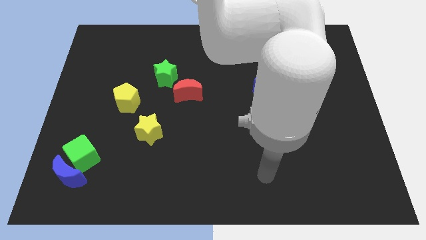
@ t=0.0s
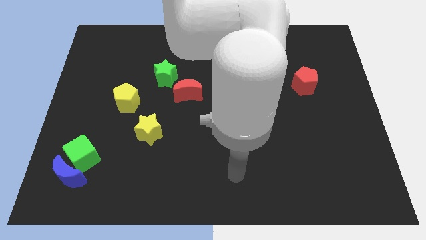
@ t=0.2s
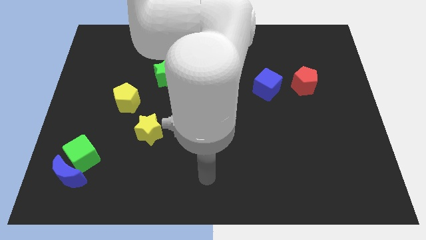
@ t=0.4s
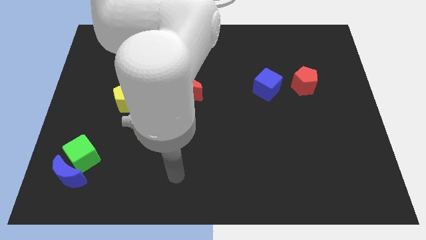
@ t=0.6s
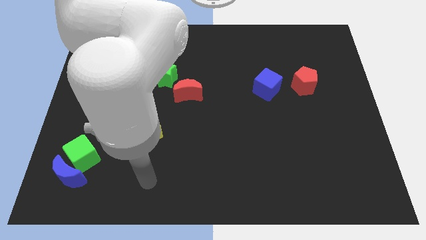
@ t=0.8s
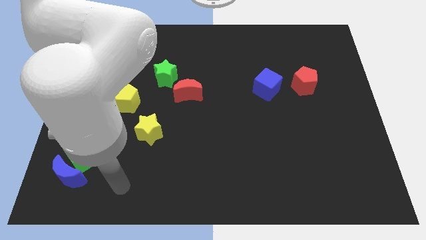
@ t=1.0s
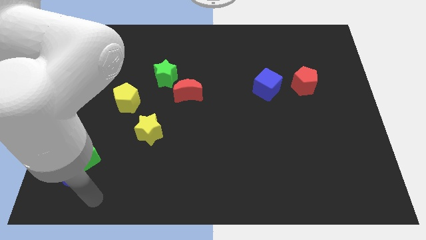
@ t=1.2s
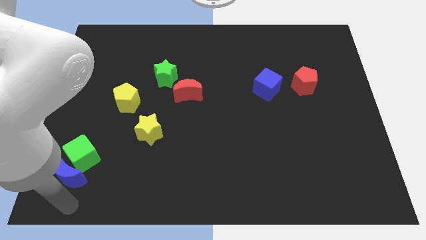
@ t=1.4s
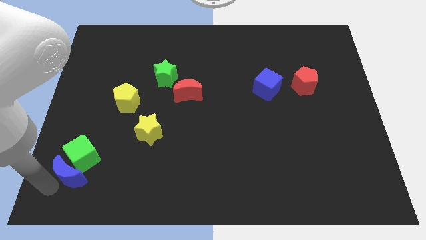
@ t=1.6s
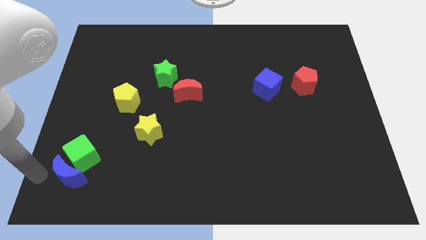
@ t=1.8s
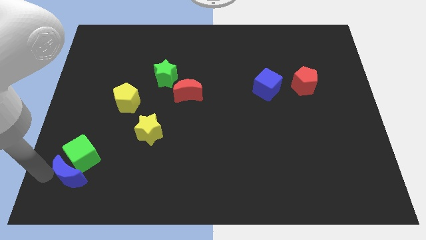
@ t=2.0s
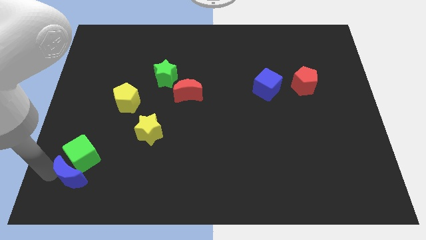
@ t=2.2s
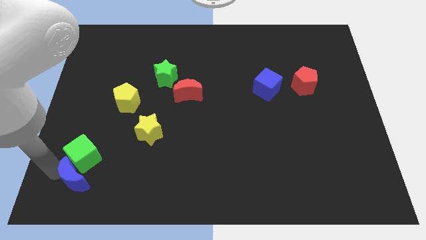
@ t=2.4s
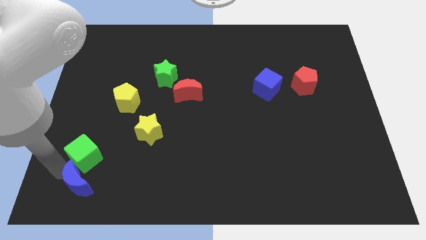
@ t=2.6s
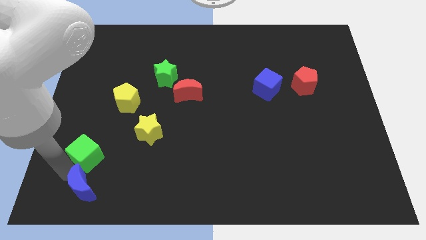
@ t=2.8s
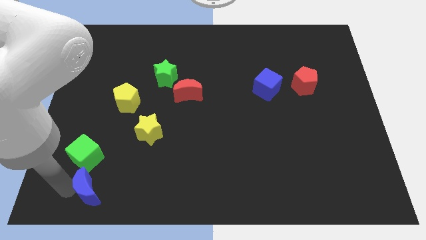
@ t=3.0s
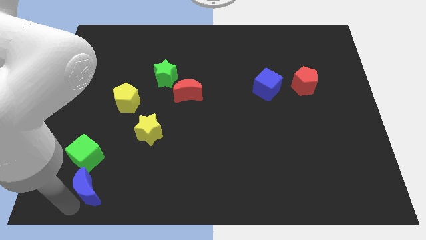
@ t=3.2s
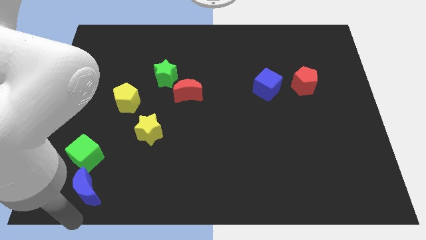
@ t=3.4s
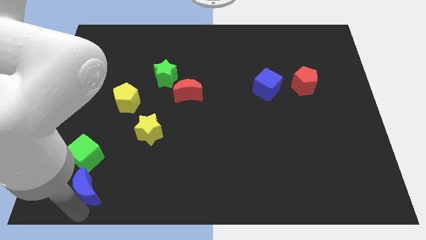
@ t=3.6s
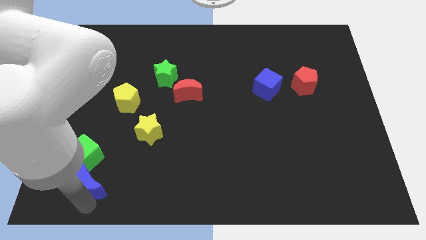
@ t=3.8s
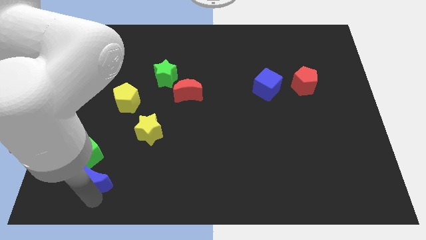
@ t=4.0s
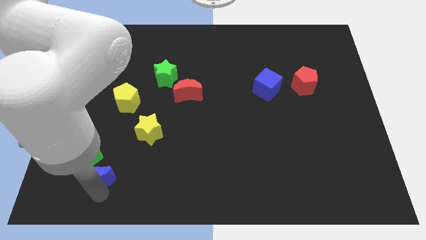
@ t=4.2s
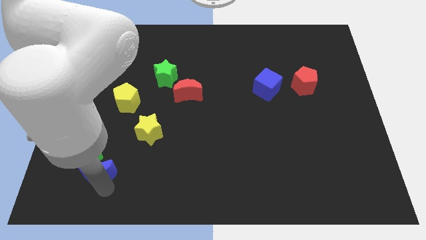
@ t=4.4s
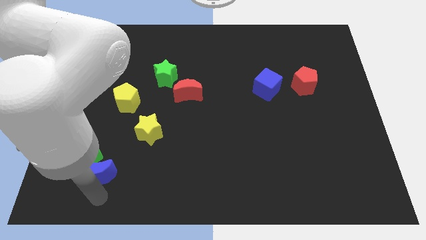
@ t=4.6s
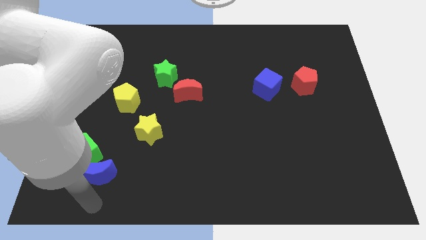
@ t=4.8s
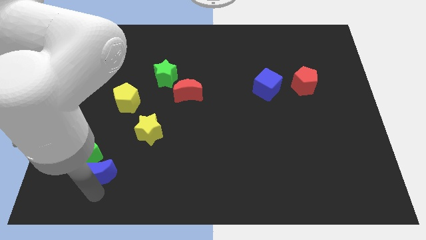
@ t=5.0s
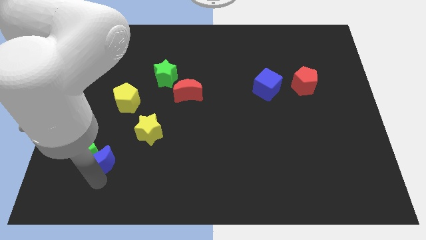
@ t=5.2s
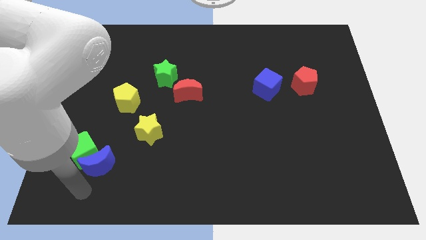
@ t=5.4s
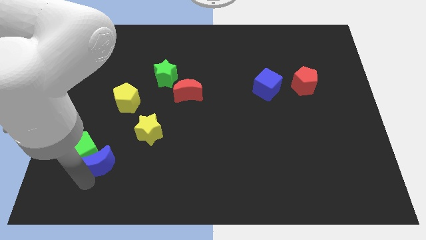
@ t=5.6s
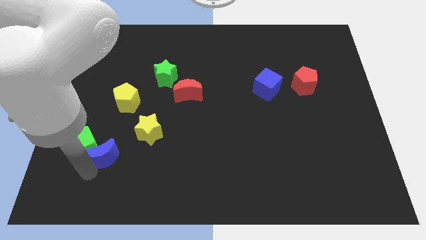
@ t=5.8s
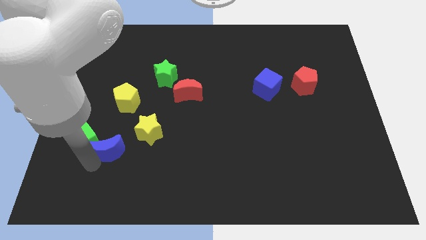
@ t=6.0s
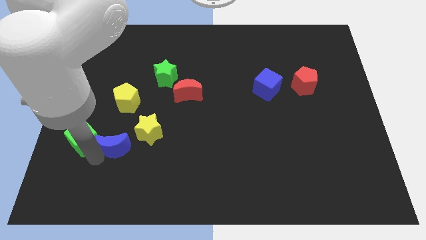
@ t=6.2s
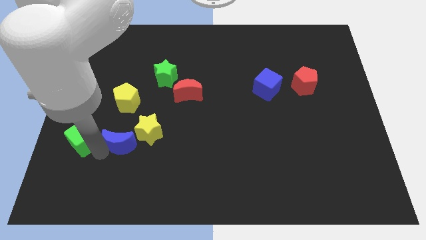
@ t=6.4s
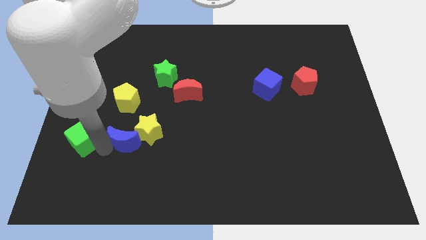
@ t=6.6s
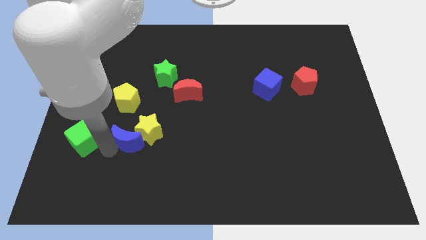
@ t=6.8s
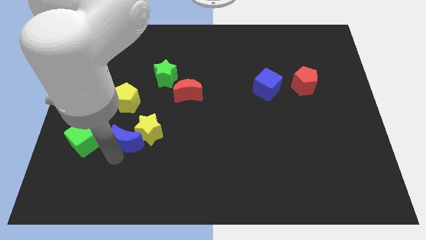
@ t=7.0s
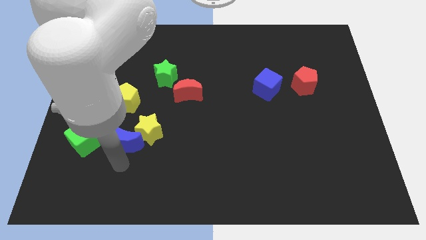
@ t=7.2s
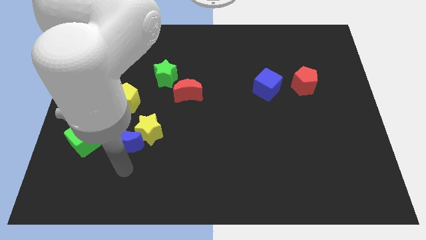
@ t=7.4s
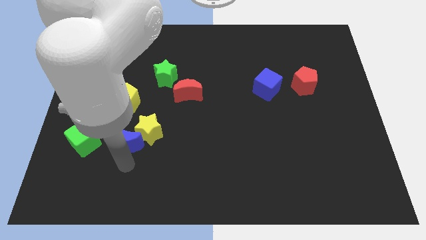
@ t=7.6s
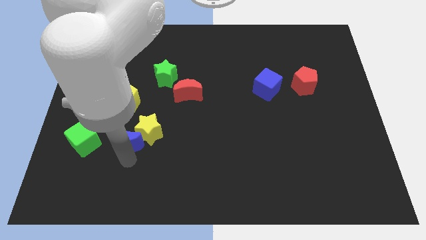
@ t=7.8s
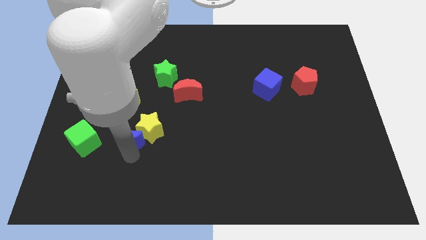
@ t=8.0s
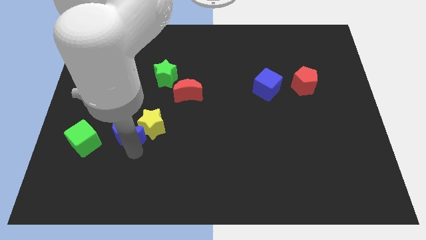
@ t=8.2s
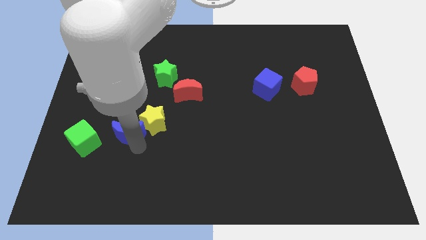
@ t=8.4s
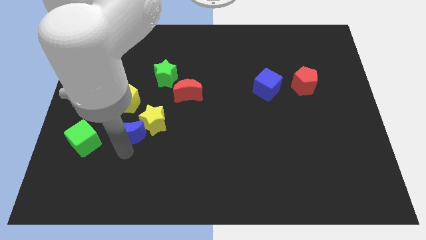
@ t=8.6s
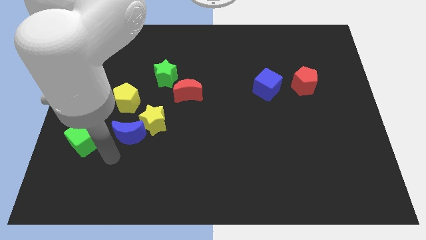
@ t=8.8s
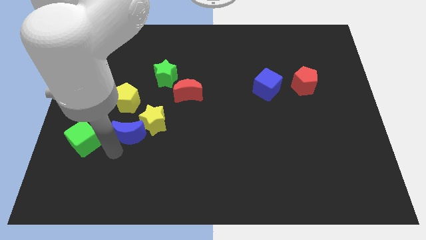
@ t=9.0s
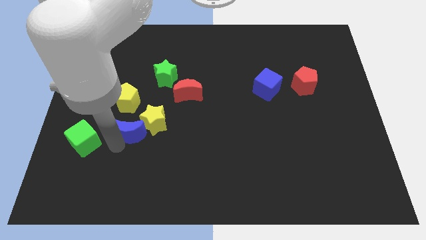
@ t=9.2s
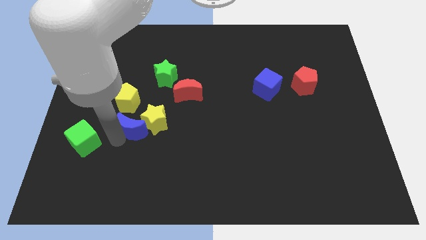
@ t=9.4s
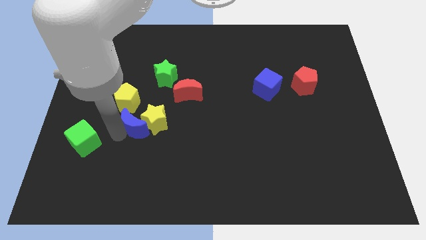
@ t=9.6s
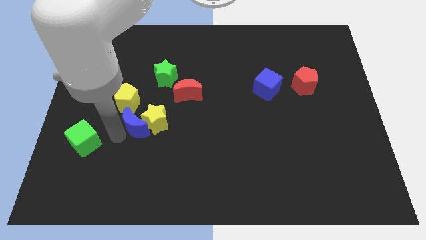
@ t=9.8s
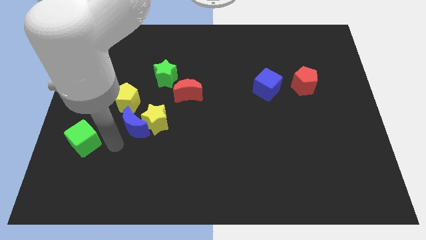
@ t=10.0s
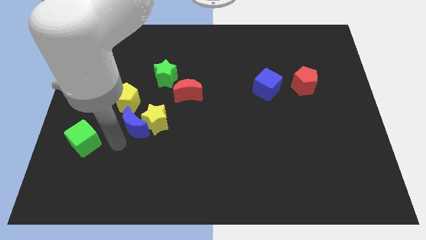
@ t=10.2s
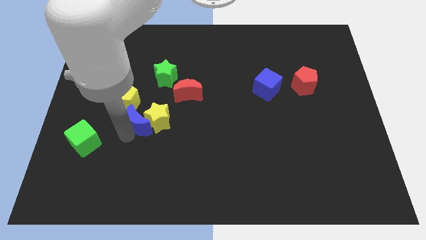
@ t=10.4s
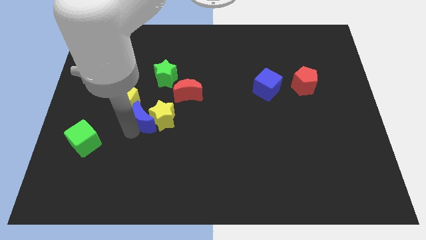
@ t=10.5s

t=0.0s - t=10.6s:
push the blue moon to the bottom left side of the red moon

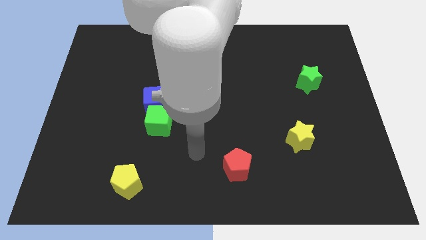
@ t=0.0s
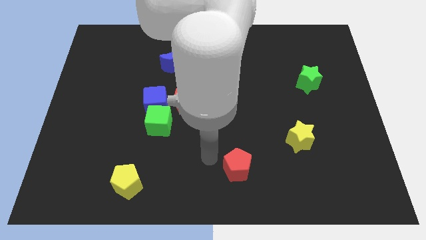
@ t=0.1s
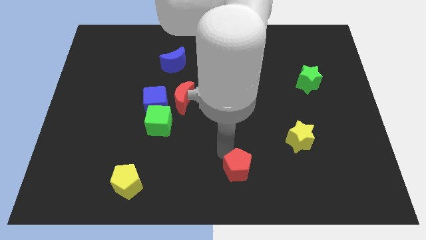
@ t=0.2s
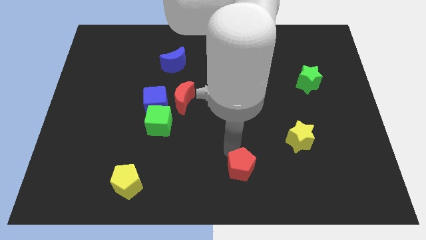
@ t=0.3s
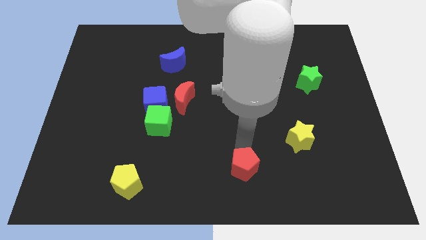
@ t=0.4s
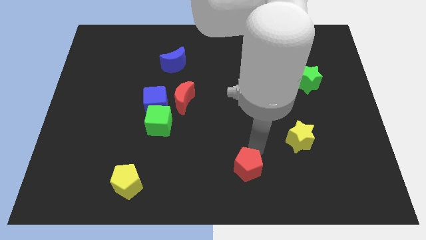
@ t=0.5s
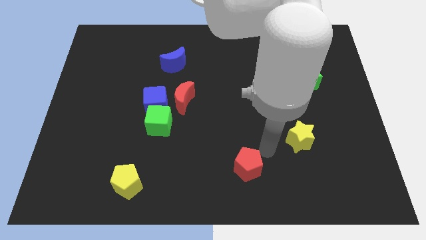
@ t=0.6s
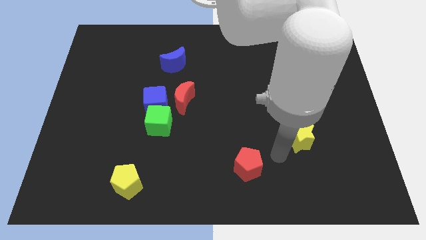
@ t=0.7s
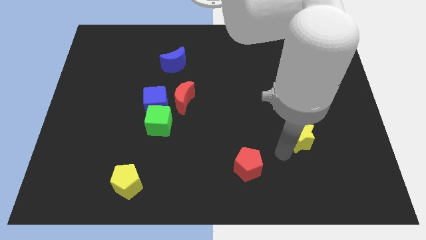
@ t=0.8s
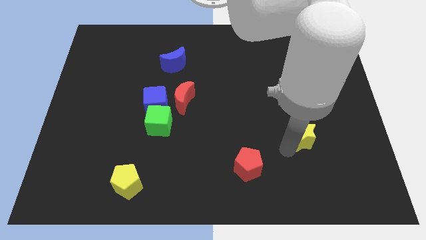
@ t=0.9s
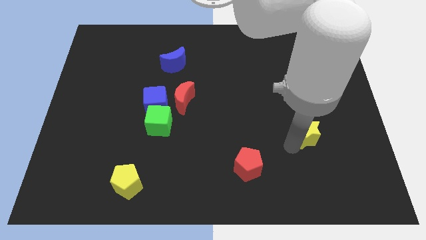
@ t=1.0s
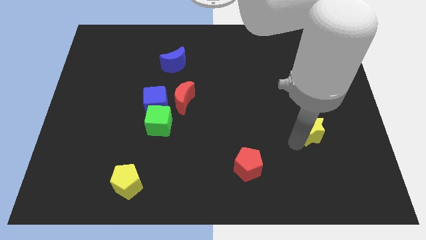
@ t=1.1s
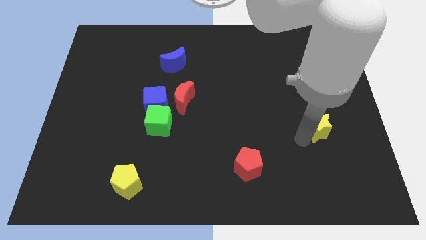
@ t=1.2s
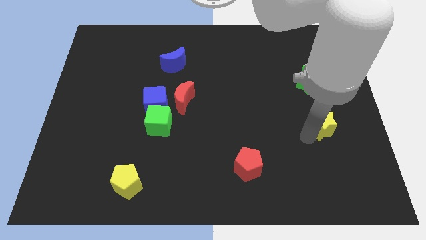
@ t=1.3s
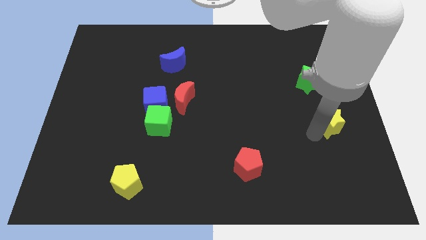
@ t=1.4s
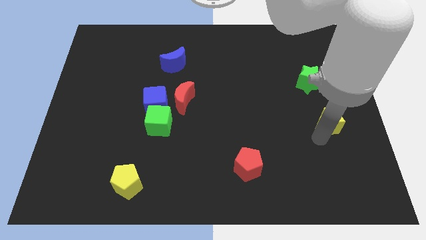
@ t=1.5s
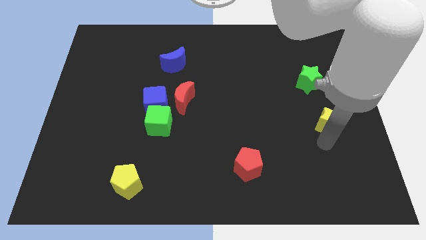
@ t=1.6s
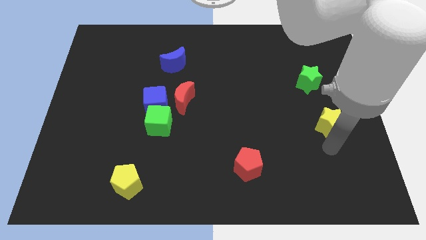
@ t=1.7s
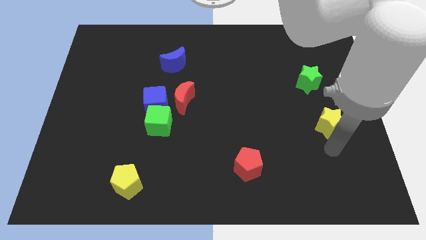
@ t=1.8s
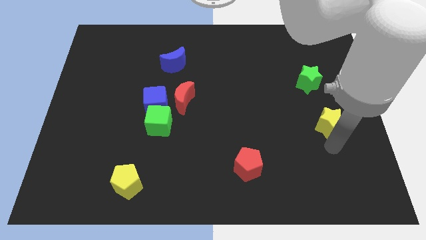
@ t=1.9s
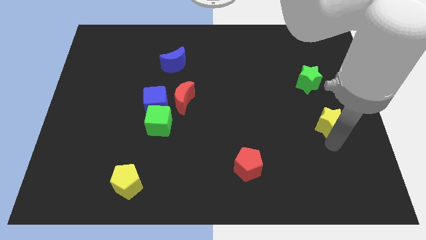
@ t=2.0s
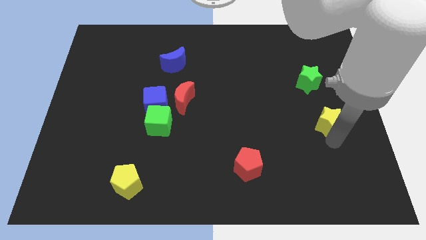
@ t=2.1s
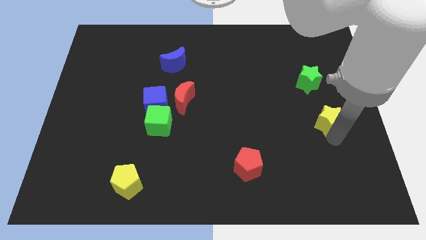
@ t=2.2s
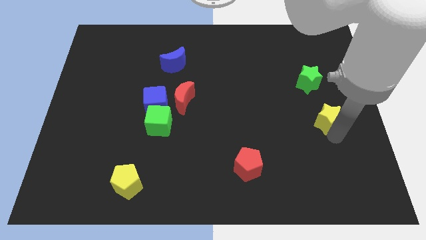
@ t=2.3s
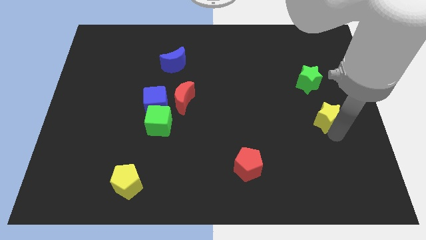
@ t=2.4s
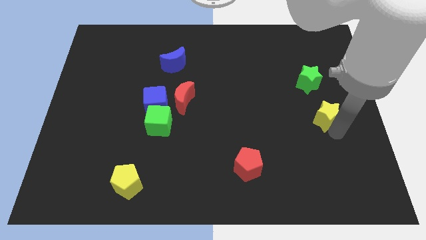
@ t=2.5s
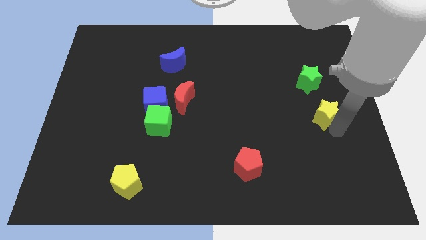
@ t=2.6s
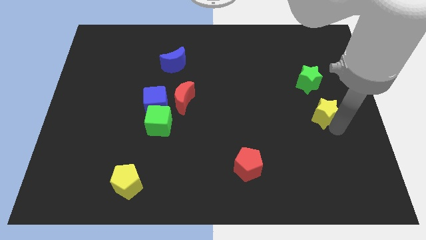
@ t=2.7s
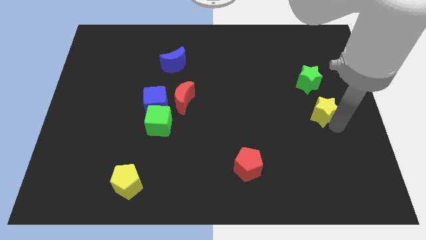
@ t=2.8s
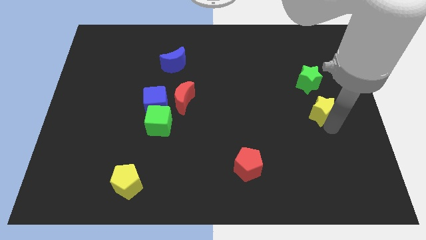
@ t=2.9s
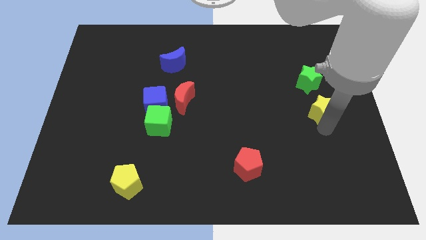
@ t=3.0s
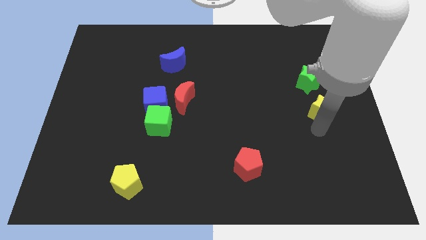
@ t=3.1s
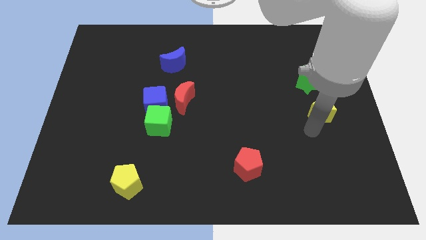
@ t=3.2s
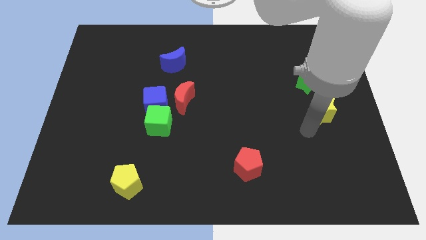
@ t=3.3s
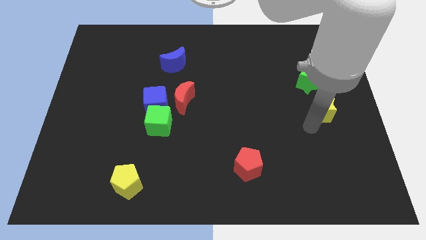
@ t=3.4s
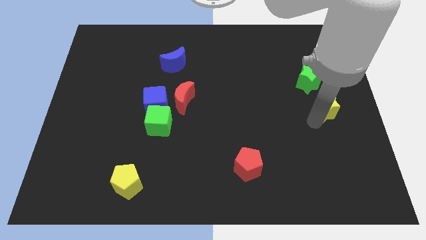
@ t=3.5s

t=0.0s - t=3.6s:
put the yellow star to the bottom right of the green star
